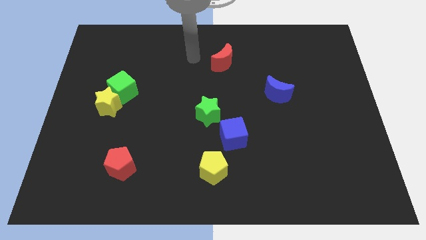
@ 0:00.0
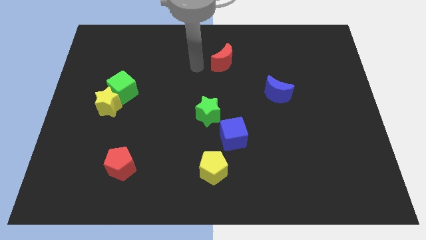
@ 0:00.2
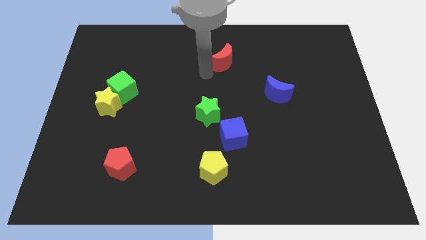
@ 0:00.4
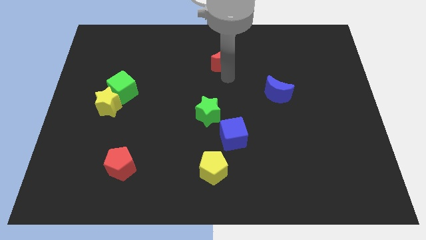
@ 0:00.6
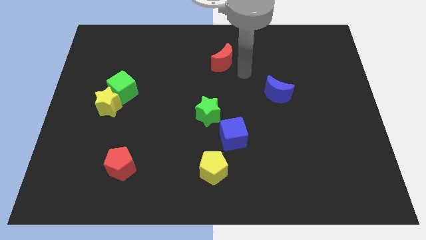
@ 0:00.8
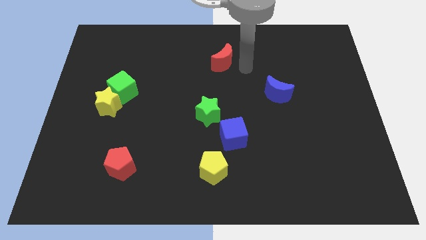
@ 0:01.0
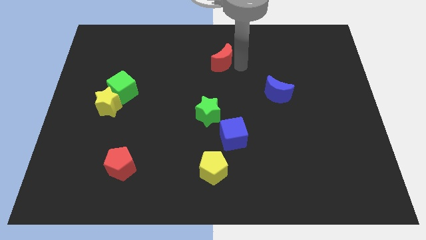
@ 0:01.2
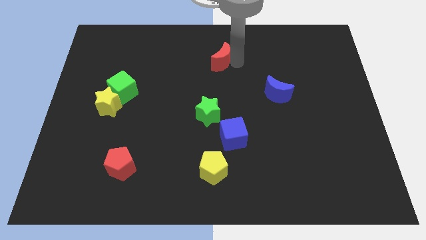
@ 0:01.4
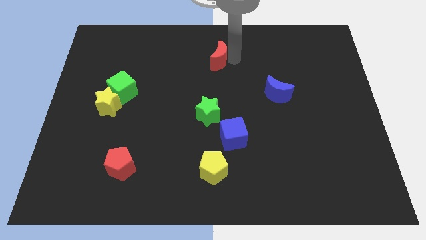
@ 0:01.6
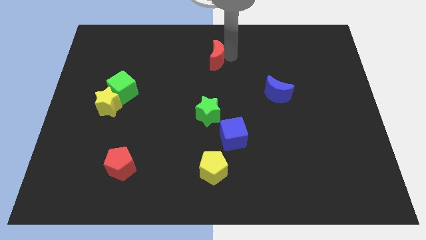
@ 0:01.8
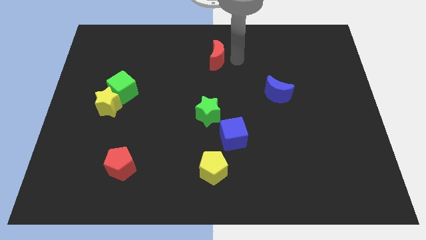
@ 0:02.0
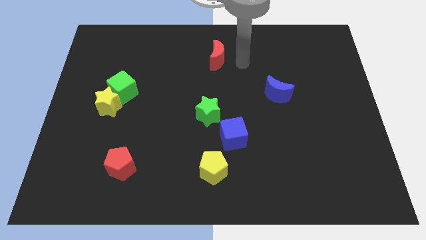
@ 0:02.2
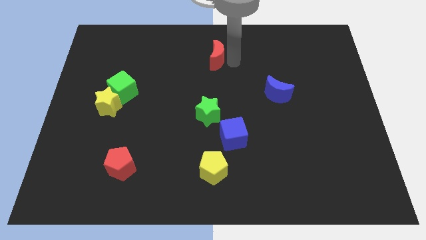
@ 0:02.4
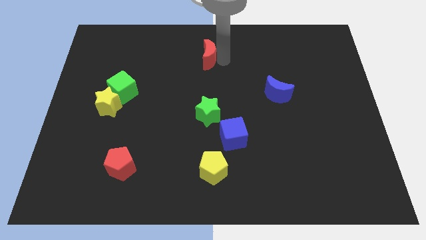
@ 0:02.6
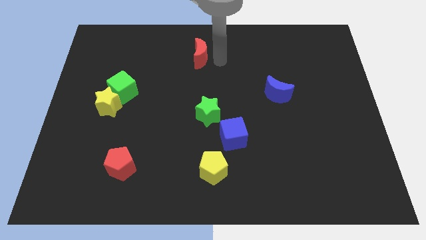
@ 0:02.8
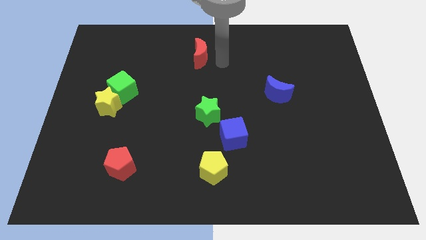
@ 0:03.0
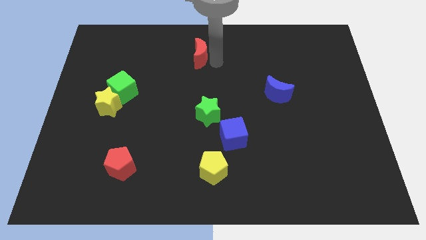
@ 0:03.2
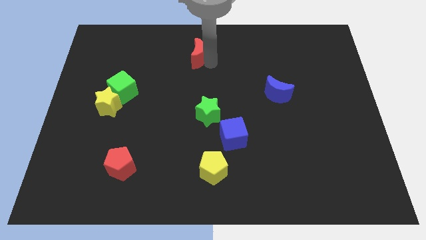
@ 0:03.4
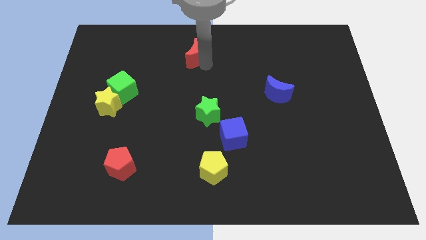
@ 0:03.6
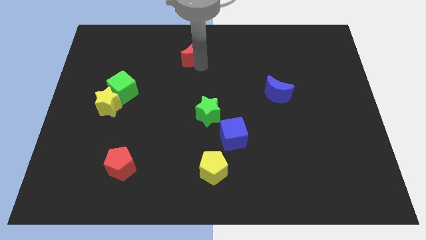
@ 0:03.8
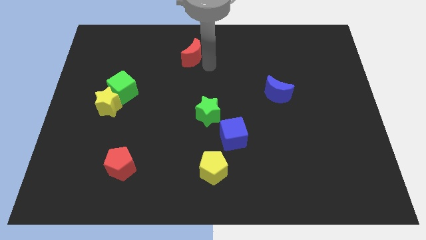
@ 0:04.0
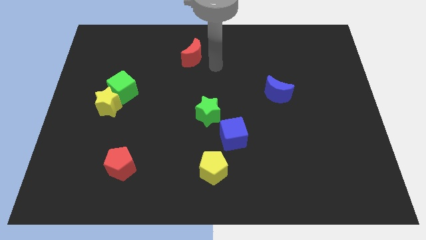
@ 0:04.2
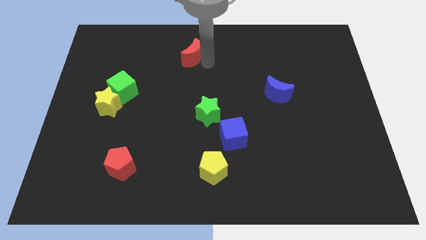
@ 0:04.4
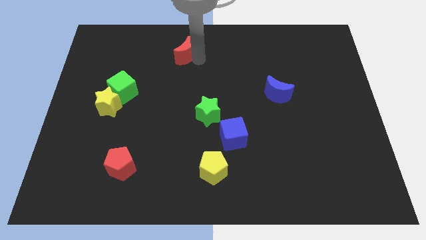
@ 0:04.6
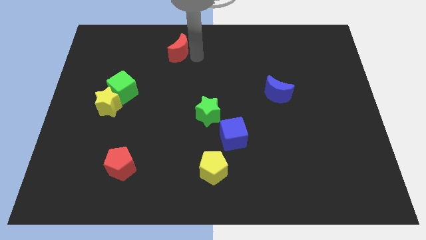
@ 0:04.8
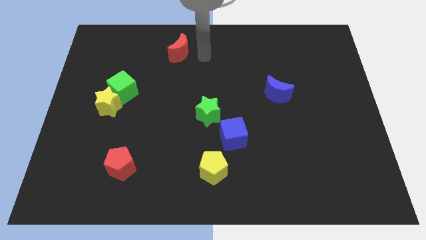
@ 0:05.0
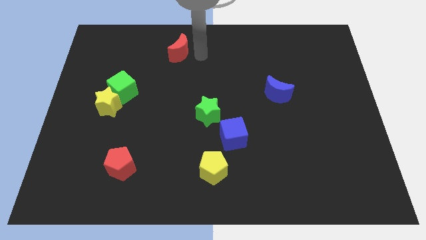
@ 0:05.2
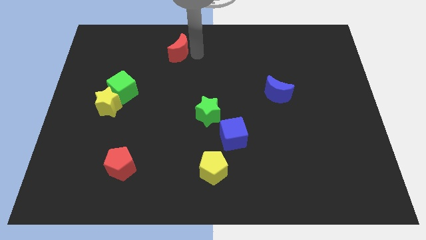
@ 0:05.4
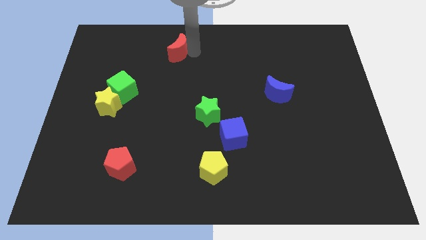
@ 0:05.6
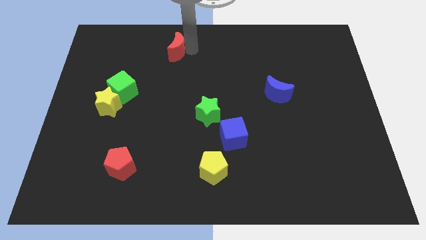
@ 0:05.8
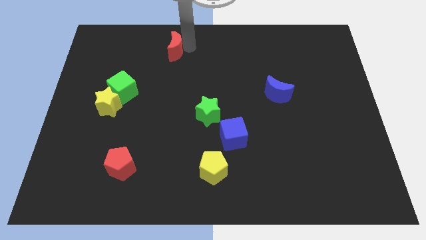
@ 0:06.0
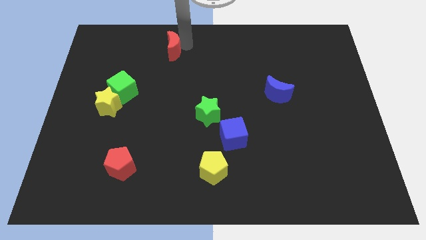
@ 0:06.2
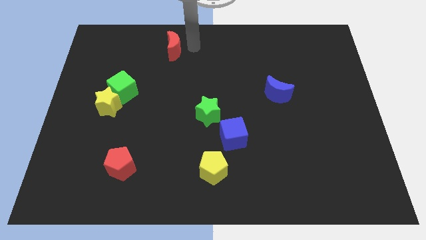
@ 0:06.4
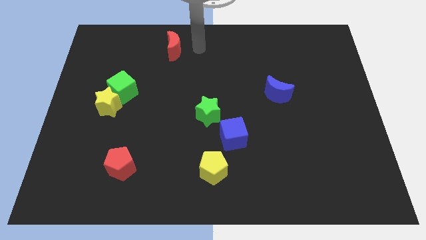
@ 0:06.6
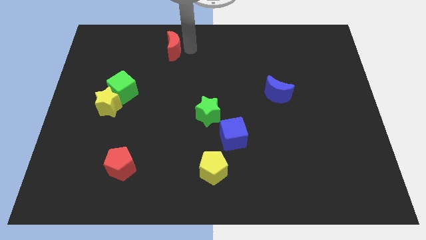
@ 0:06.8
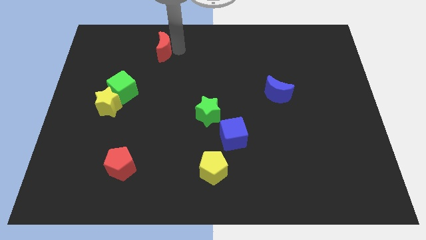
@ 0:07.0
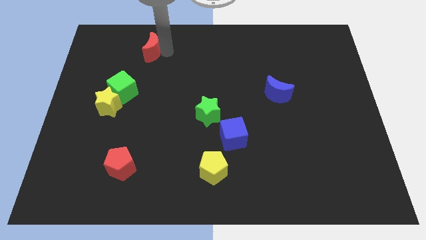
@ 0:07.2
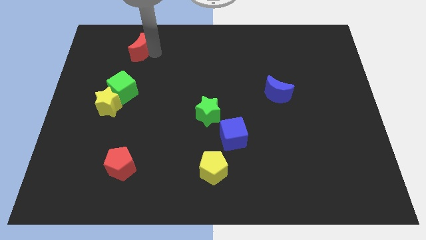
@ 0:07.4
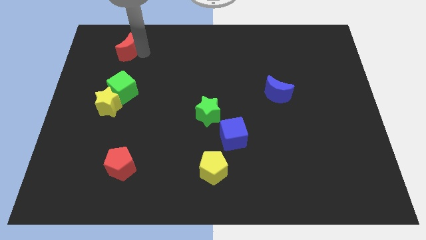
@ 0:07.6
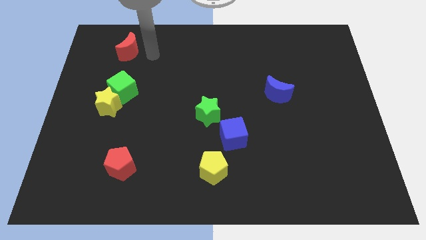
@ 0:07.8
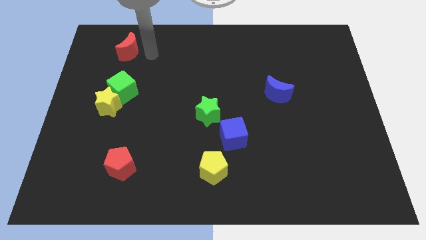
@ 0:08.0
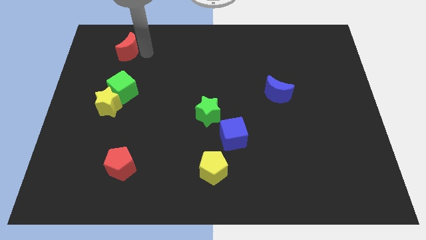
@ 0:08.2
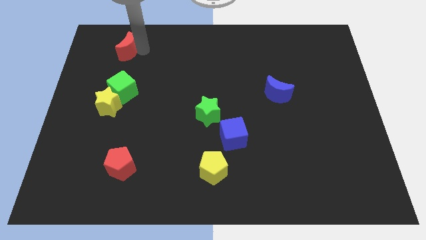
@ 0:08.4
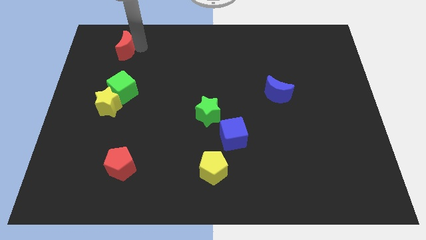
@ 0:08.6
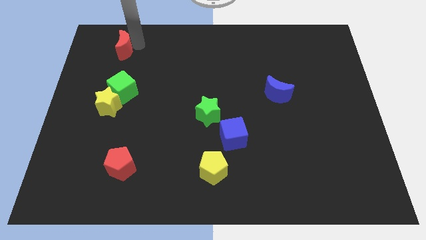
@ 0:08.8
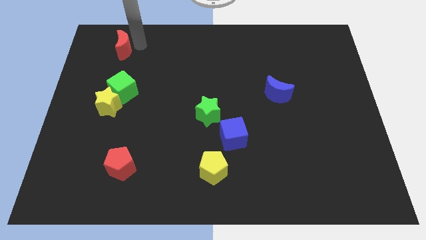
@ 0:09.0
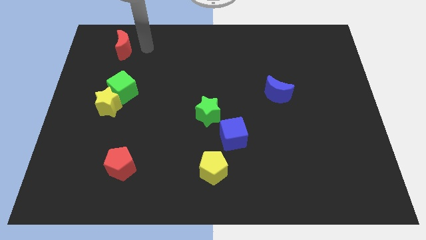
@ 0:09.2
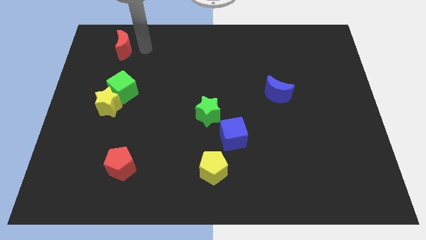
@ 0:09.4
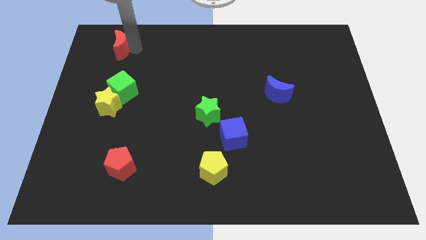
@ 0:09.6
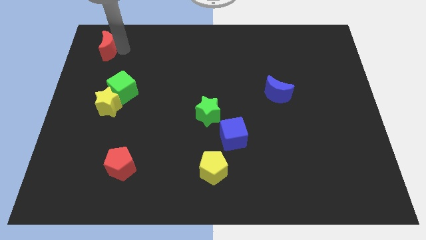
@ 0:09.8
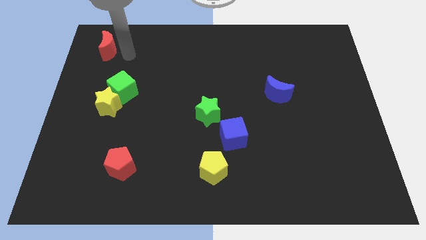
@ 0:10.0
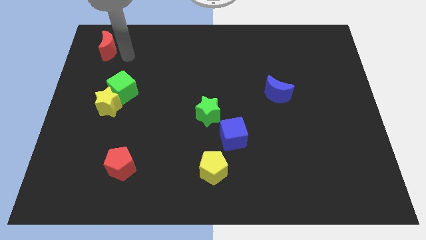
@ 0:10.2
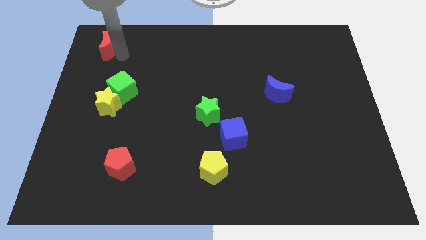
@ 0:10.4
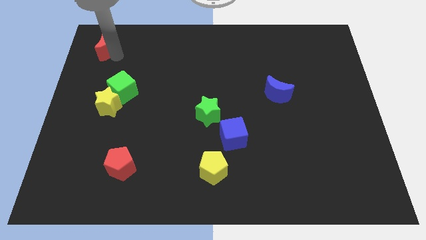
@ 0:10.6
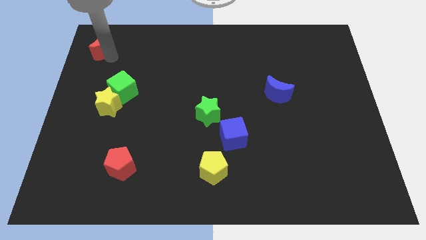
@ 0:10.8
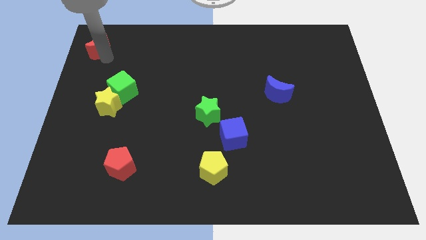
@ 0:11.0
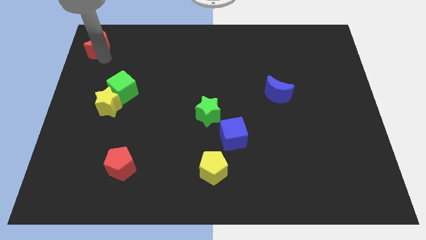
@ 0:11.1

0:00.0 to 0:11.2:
push the red moon to the upper left corner

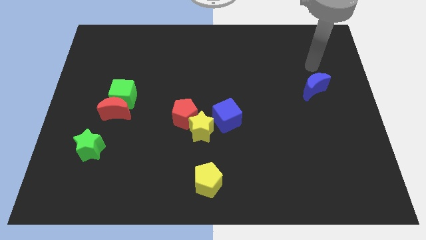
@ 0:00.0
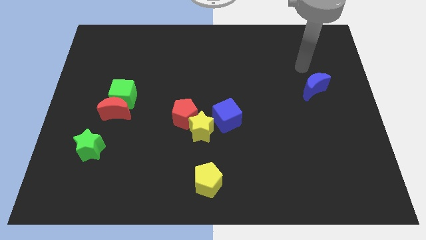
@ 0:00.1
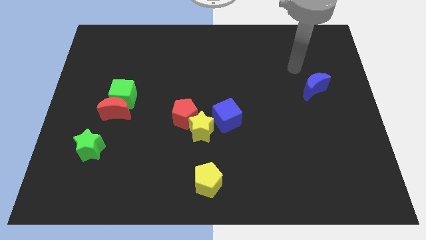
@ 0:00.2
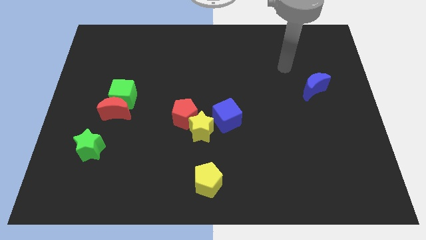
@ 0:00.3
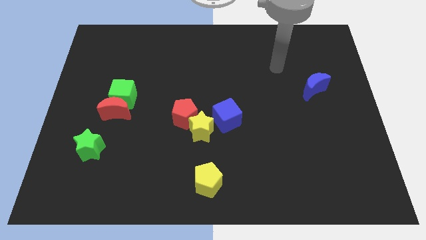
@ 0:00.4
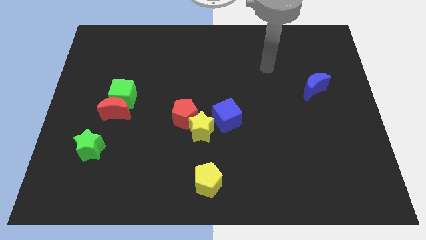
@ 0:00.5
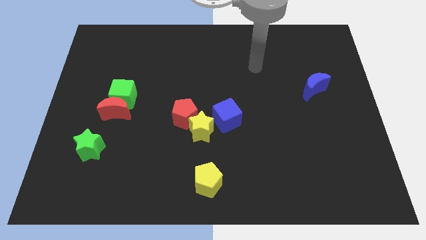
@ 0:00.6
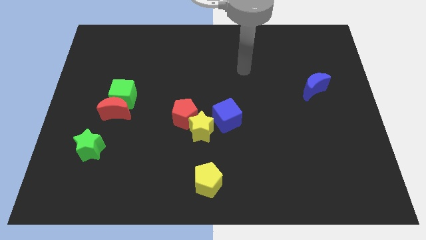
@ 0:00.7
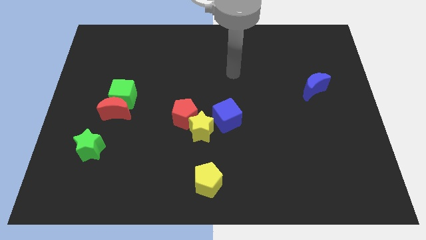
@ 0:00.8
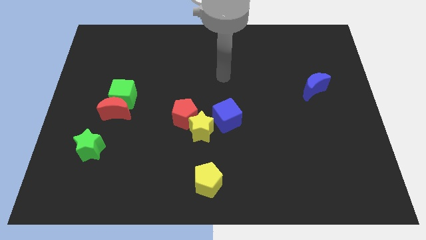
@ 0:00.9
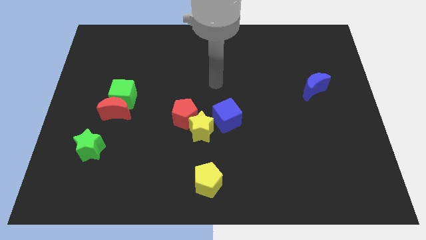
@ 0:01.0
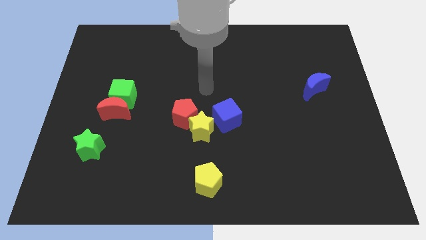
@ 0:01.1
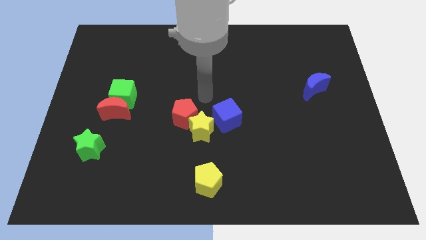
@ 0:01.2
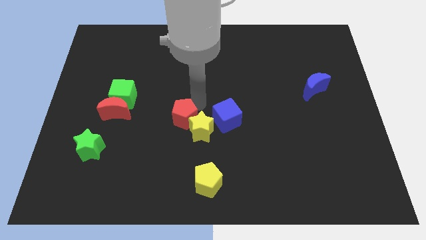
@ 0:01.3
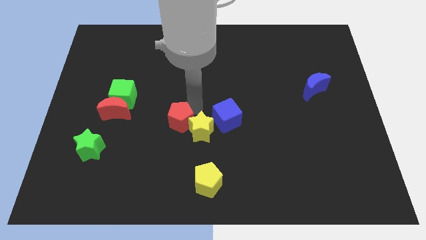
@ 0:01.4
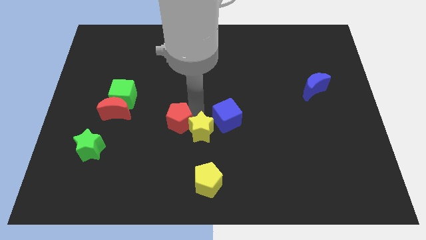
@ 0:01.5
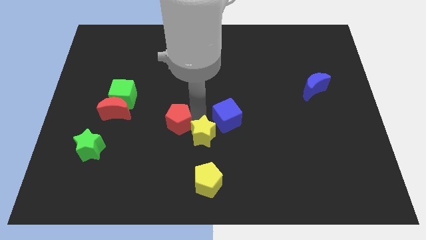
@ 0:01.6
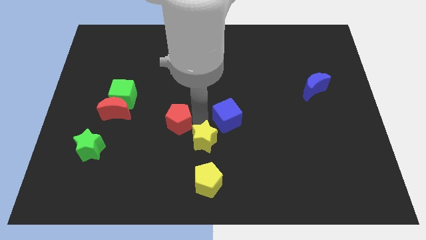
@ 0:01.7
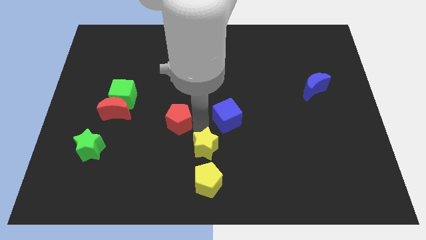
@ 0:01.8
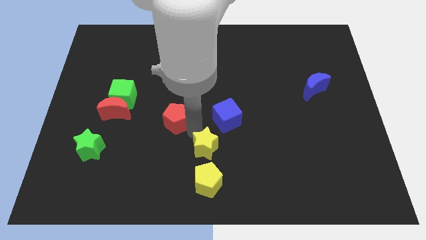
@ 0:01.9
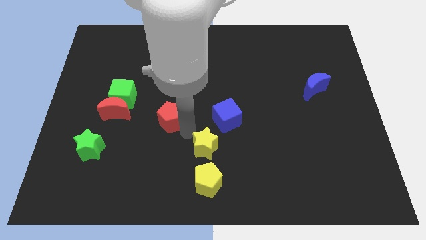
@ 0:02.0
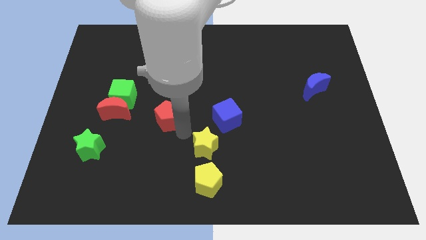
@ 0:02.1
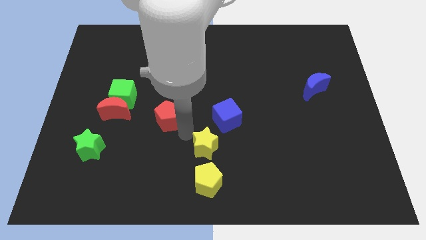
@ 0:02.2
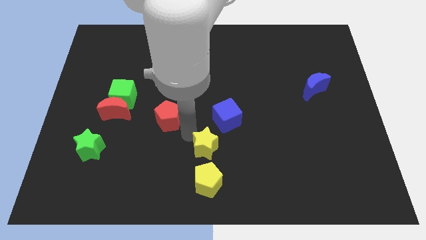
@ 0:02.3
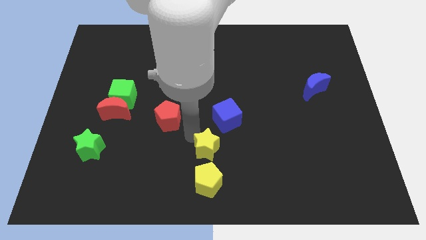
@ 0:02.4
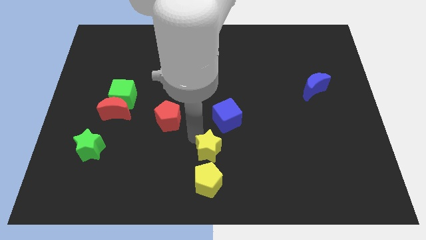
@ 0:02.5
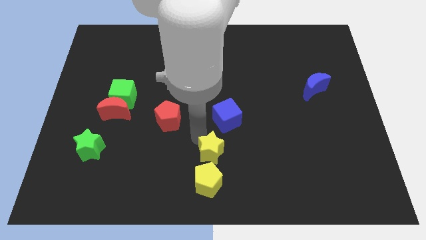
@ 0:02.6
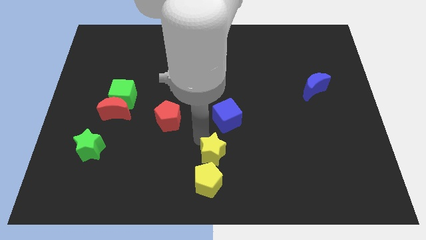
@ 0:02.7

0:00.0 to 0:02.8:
put the yellow star to the bottom
